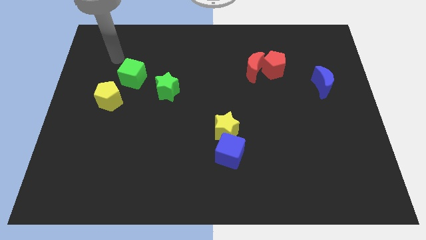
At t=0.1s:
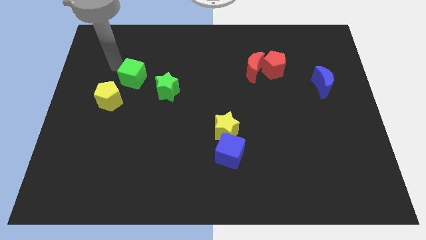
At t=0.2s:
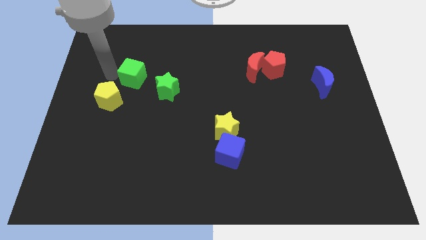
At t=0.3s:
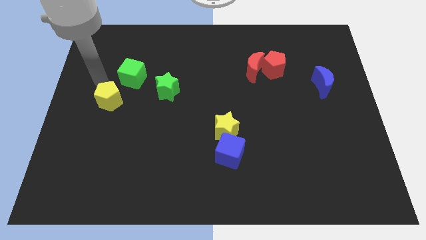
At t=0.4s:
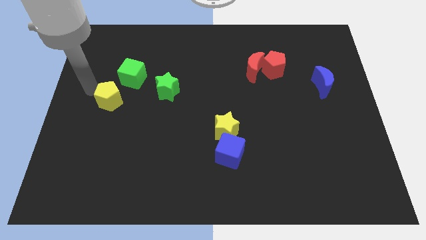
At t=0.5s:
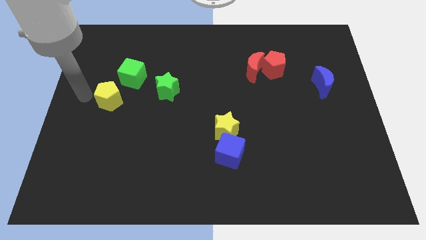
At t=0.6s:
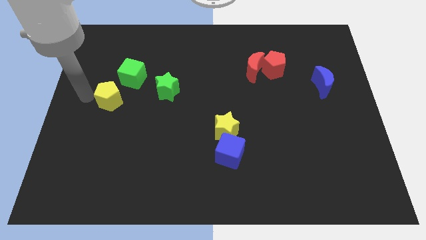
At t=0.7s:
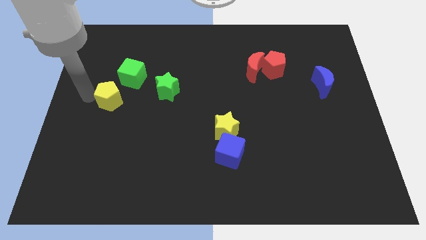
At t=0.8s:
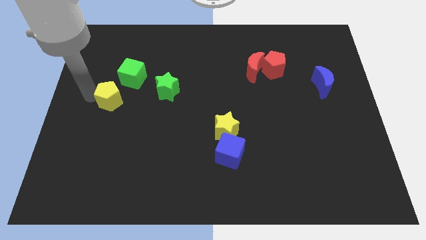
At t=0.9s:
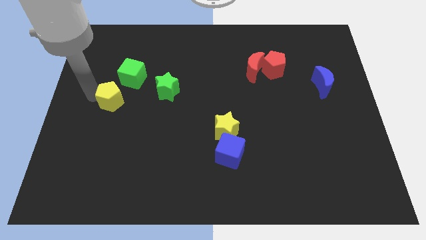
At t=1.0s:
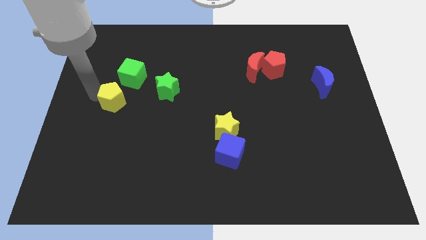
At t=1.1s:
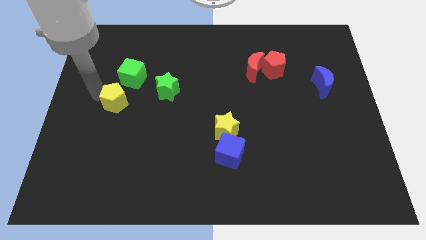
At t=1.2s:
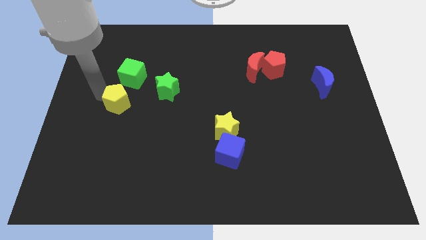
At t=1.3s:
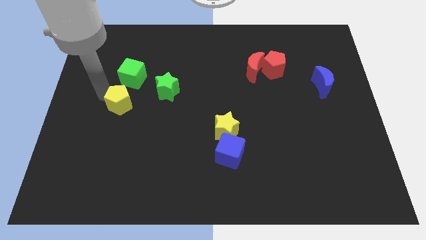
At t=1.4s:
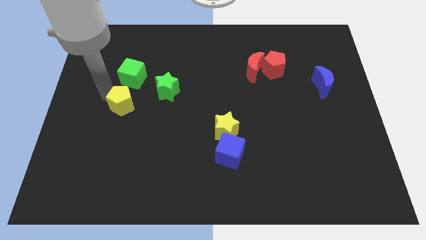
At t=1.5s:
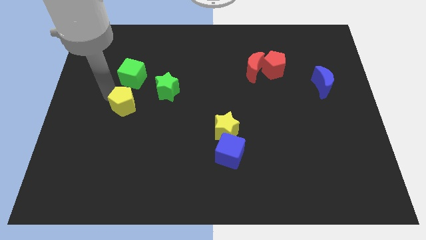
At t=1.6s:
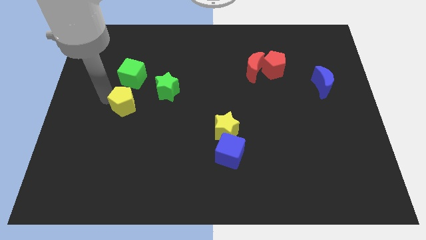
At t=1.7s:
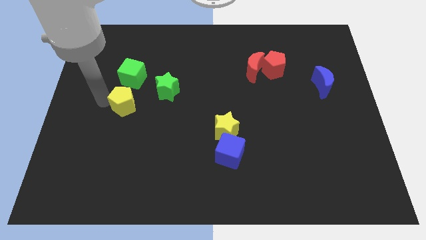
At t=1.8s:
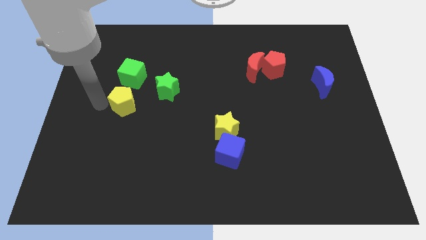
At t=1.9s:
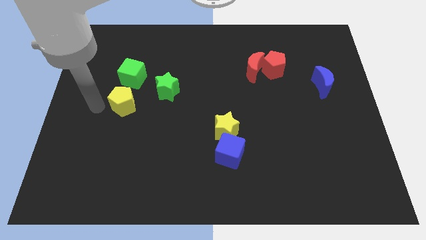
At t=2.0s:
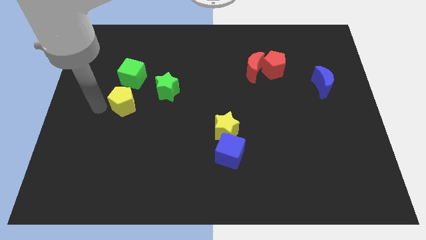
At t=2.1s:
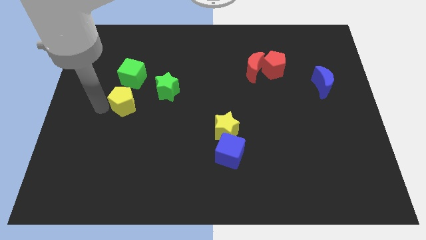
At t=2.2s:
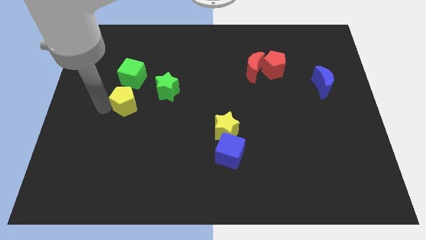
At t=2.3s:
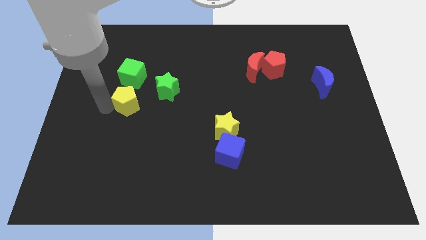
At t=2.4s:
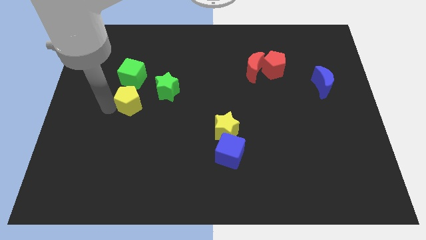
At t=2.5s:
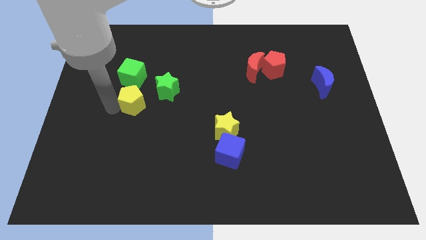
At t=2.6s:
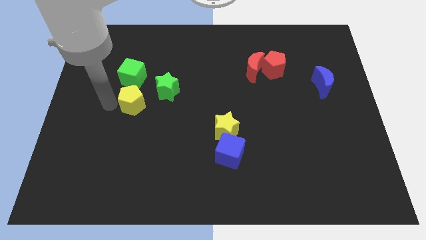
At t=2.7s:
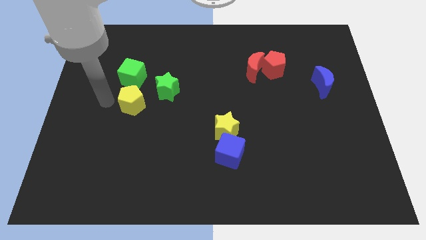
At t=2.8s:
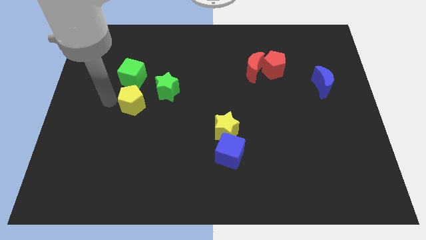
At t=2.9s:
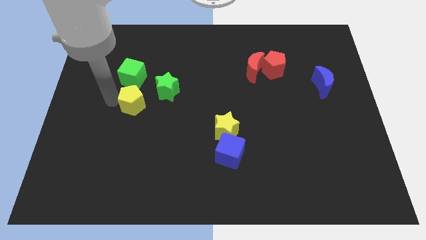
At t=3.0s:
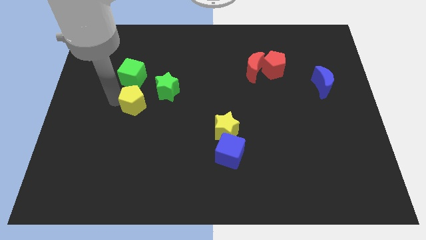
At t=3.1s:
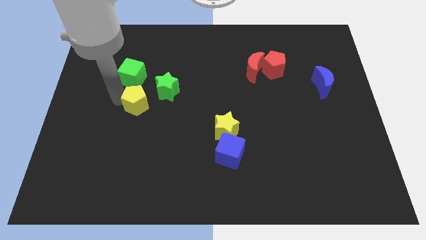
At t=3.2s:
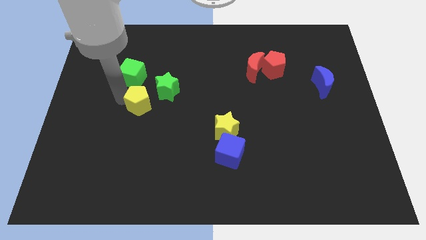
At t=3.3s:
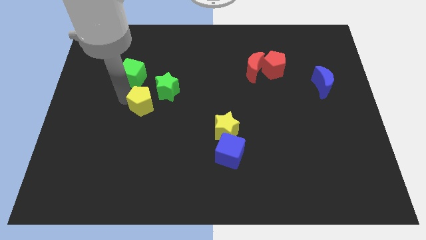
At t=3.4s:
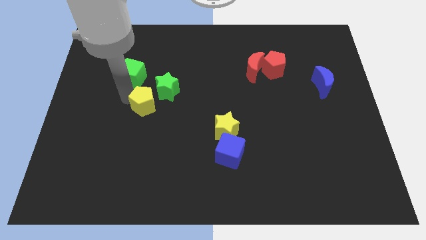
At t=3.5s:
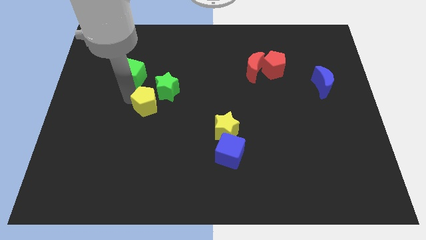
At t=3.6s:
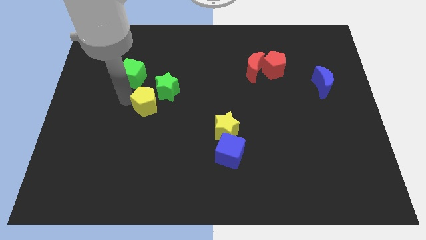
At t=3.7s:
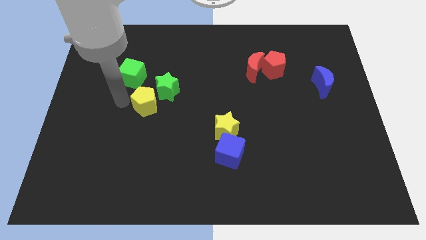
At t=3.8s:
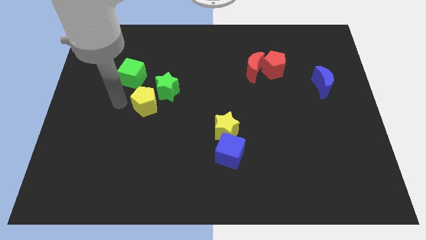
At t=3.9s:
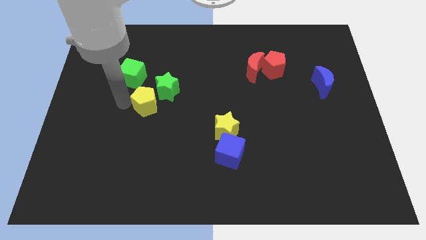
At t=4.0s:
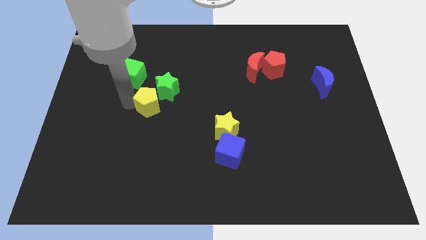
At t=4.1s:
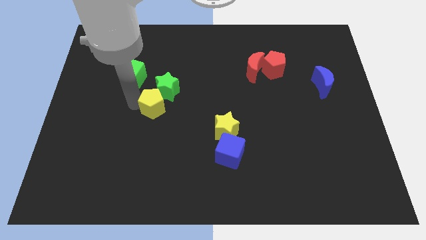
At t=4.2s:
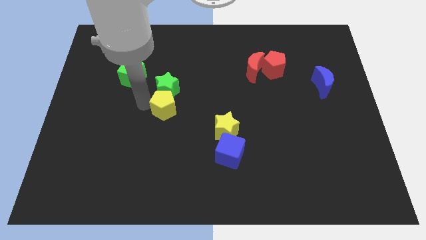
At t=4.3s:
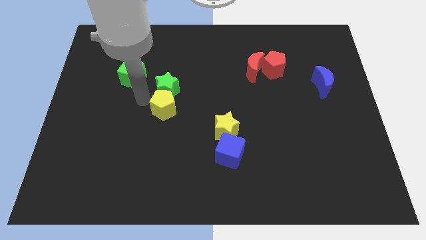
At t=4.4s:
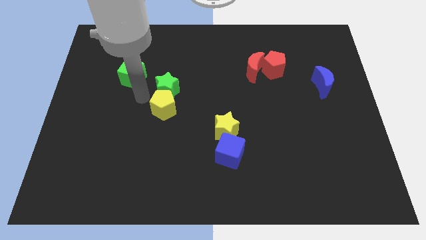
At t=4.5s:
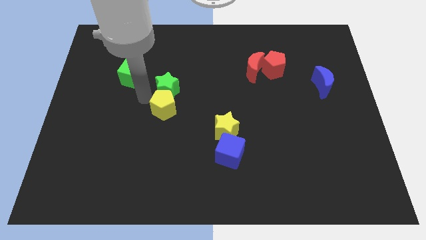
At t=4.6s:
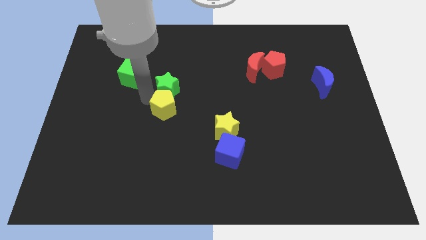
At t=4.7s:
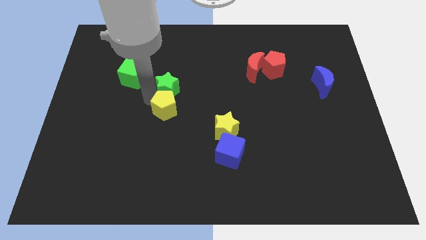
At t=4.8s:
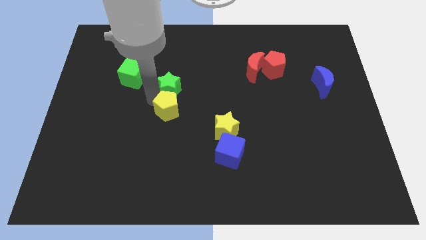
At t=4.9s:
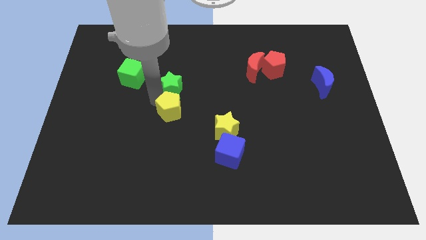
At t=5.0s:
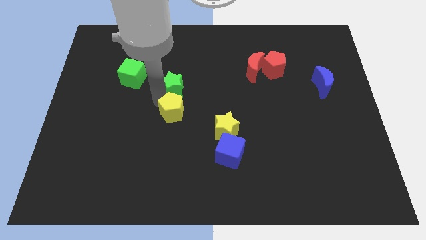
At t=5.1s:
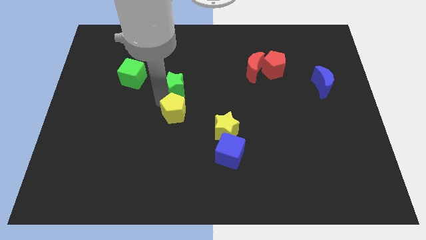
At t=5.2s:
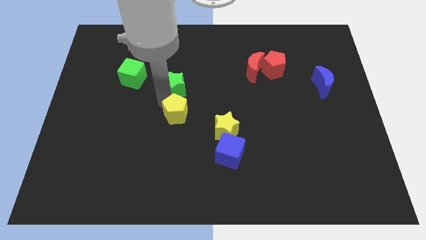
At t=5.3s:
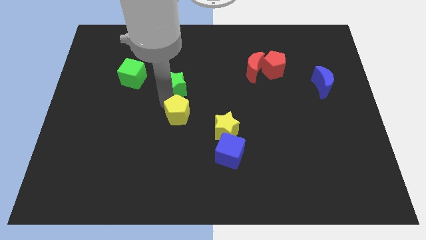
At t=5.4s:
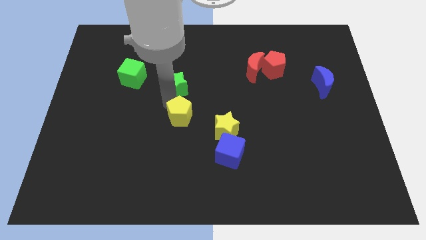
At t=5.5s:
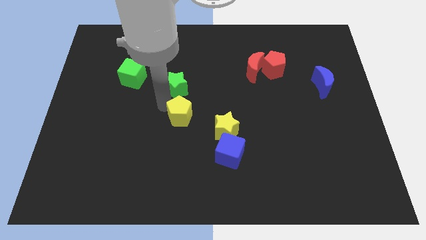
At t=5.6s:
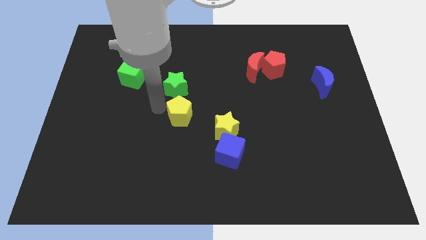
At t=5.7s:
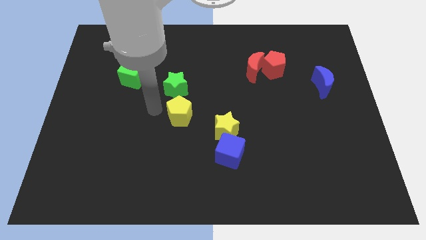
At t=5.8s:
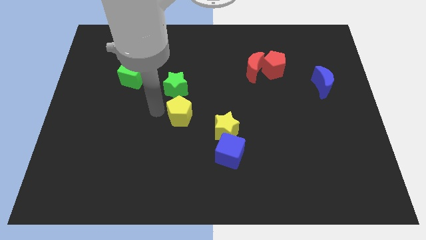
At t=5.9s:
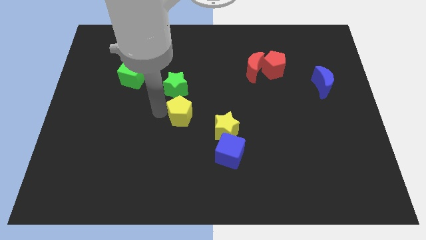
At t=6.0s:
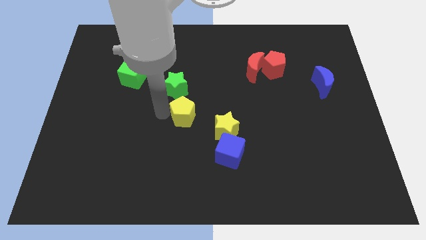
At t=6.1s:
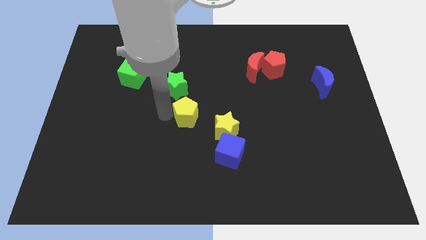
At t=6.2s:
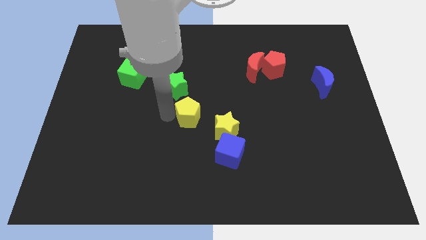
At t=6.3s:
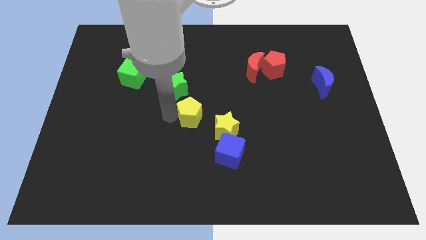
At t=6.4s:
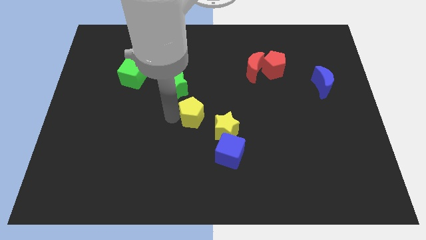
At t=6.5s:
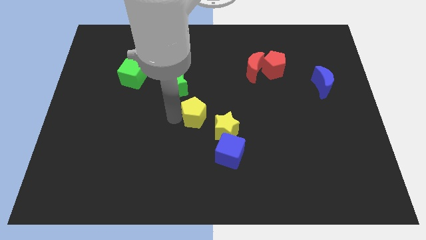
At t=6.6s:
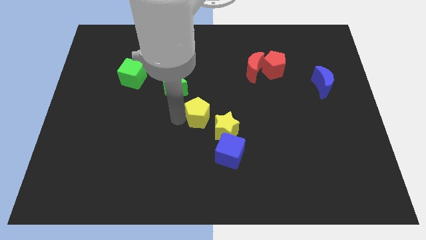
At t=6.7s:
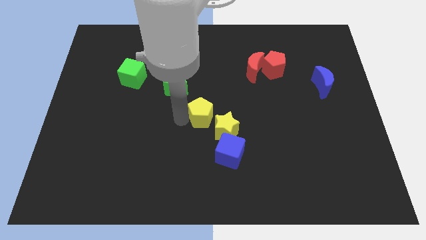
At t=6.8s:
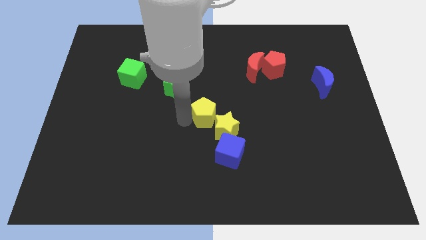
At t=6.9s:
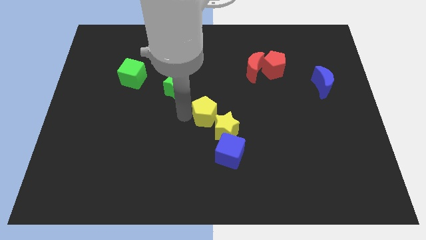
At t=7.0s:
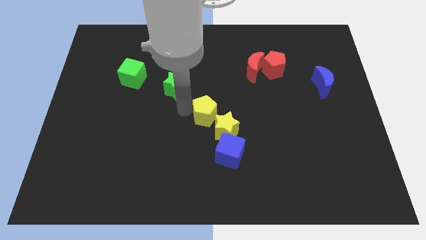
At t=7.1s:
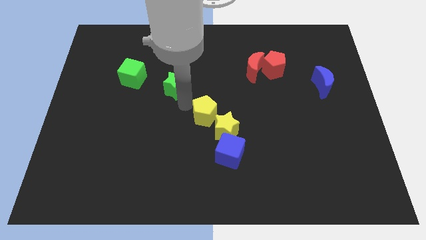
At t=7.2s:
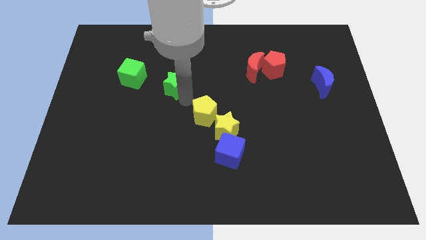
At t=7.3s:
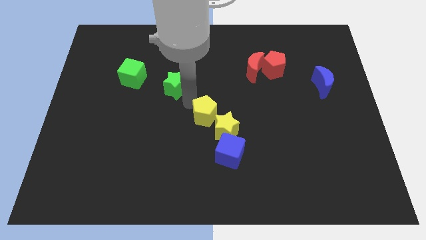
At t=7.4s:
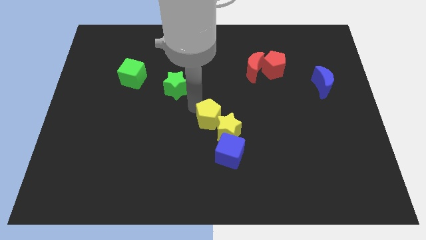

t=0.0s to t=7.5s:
put the yellow pentagon towards the yellow star
